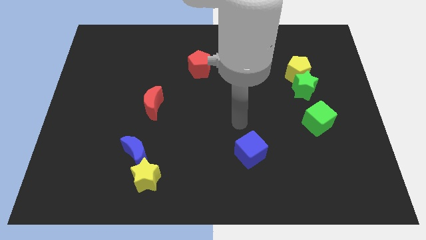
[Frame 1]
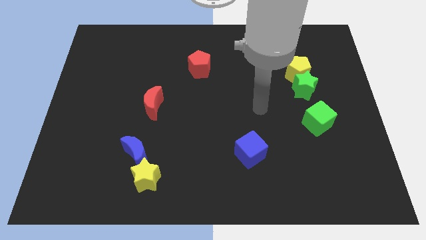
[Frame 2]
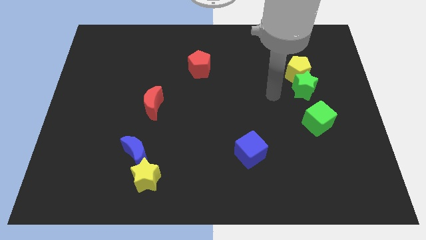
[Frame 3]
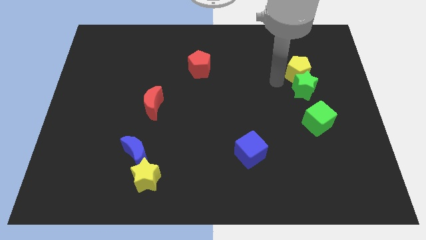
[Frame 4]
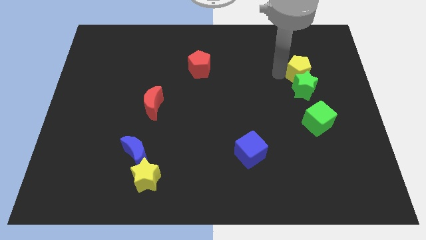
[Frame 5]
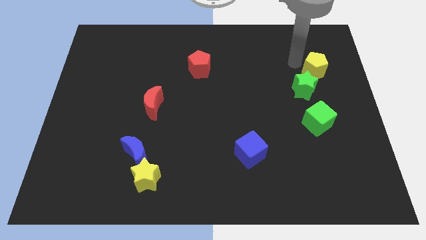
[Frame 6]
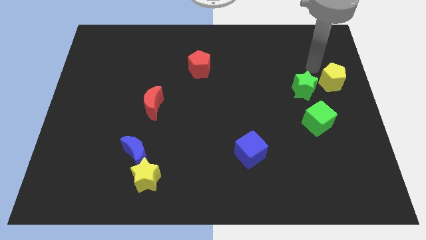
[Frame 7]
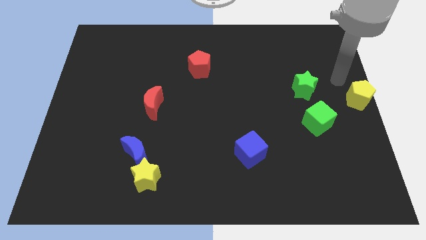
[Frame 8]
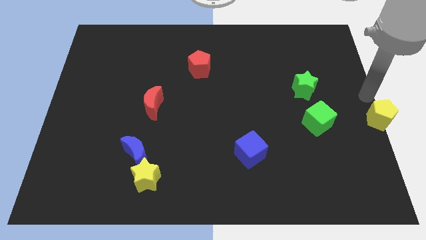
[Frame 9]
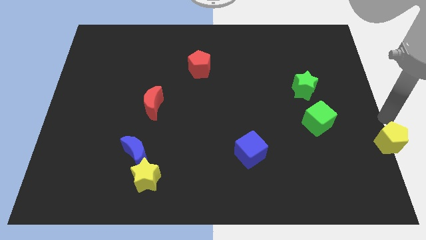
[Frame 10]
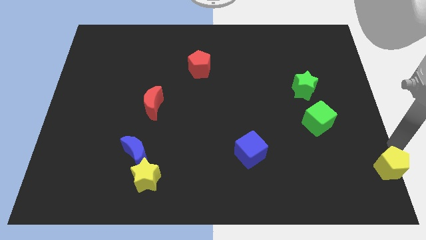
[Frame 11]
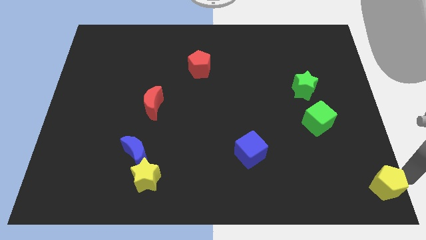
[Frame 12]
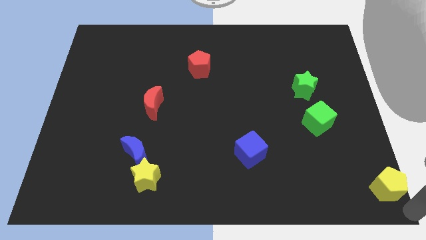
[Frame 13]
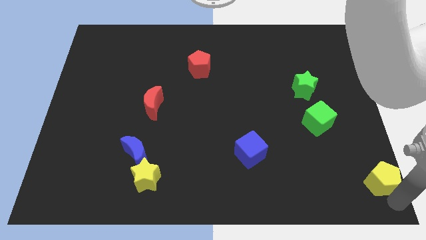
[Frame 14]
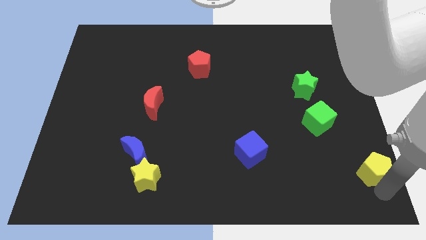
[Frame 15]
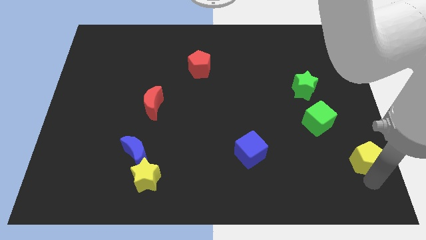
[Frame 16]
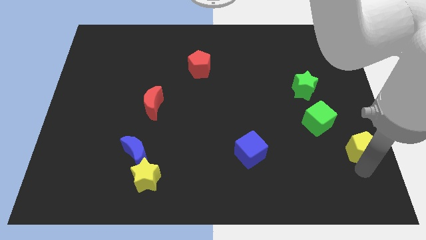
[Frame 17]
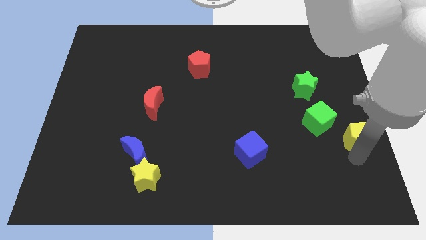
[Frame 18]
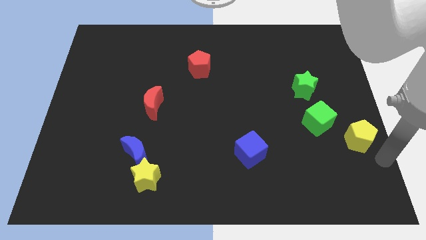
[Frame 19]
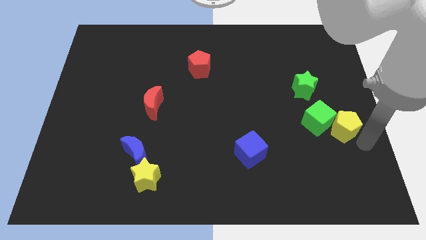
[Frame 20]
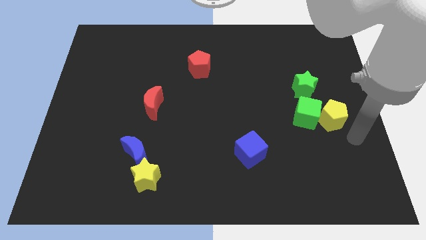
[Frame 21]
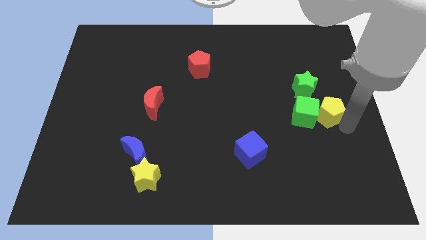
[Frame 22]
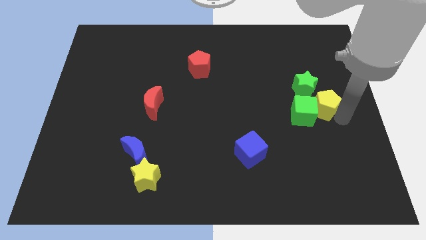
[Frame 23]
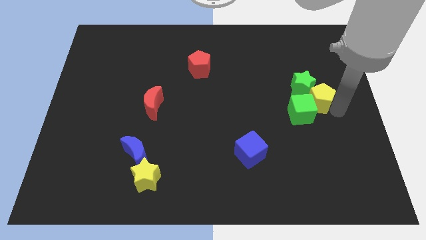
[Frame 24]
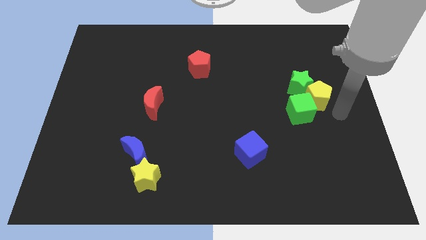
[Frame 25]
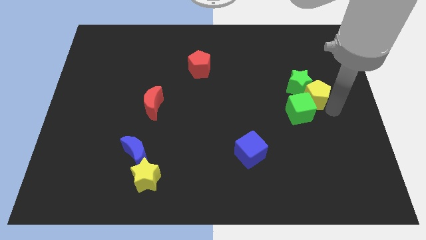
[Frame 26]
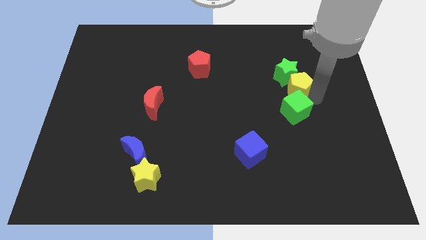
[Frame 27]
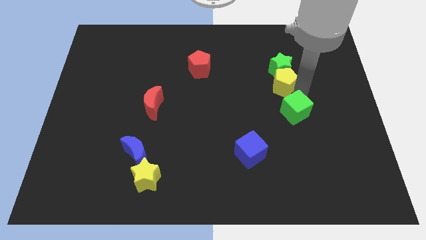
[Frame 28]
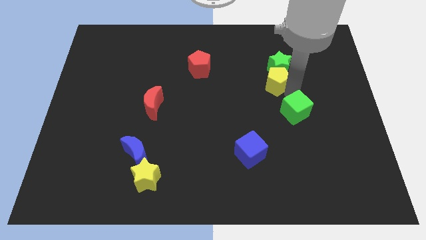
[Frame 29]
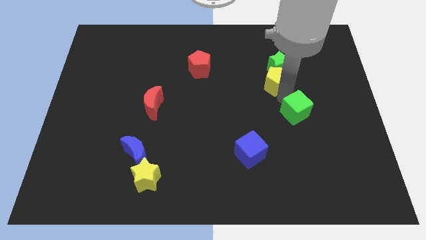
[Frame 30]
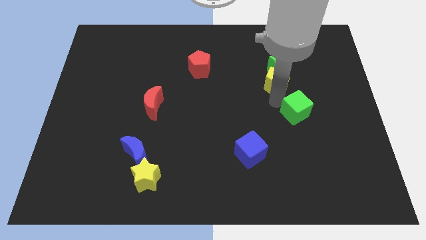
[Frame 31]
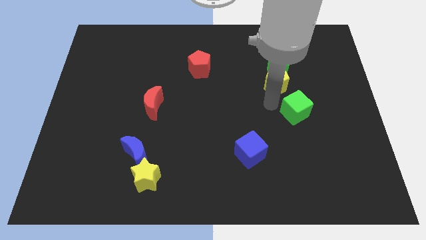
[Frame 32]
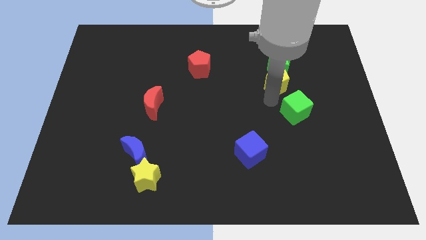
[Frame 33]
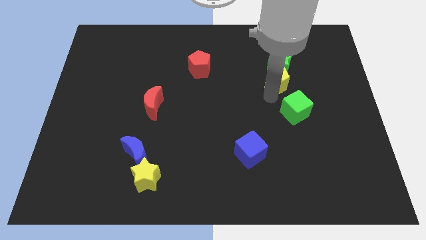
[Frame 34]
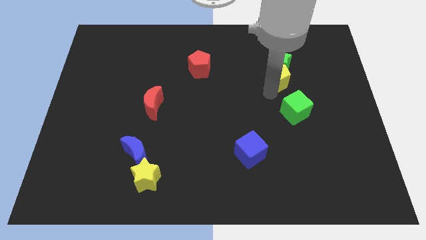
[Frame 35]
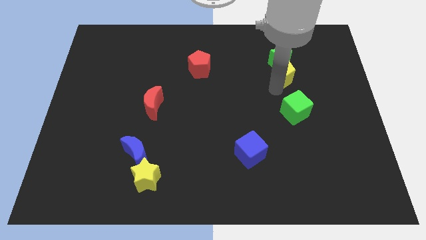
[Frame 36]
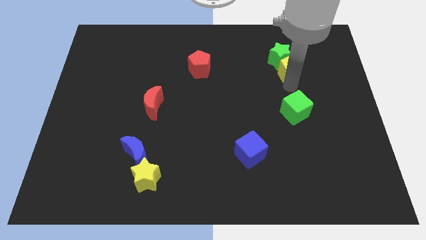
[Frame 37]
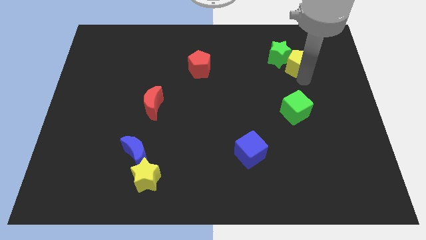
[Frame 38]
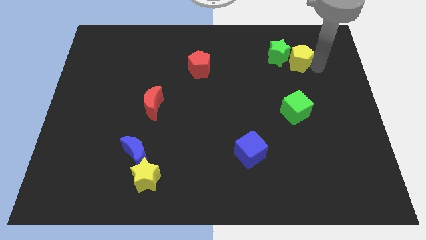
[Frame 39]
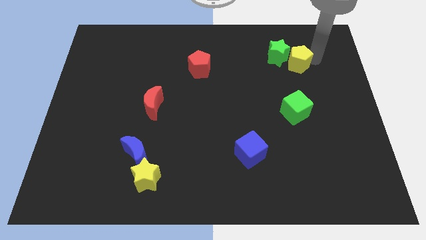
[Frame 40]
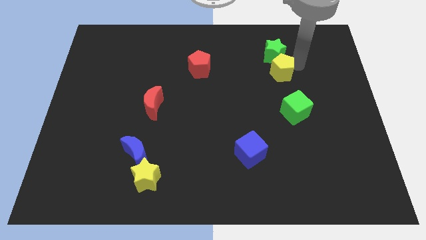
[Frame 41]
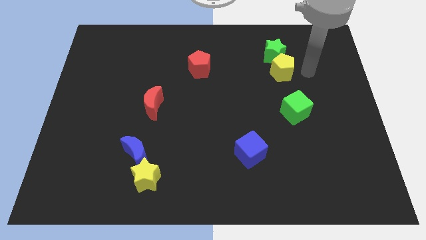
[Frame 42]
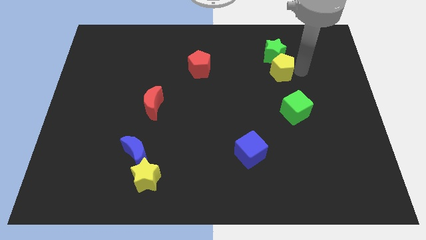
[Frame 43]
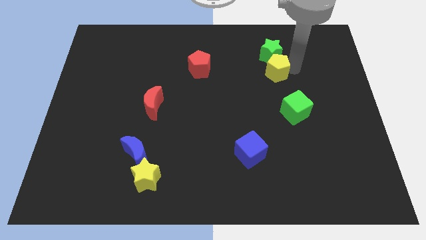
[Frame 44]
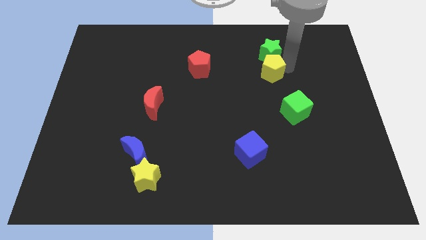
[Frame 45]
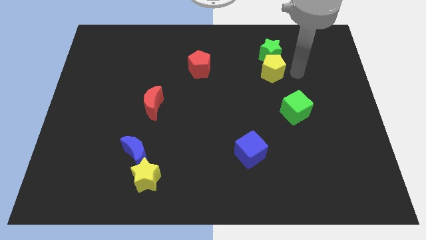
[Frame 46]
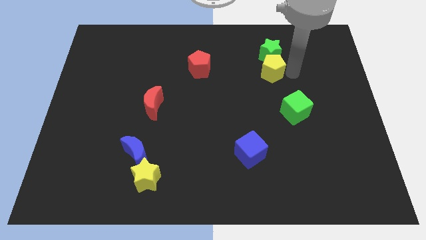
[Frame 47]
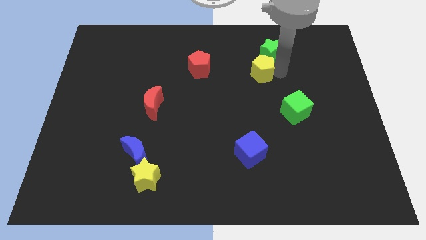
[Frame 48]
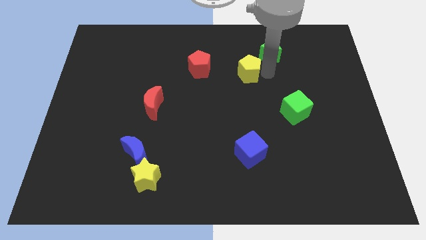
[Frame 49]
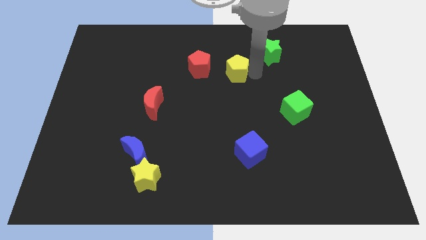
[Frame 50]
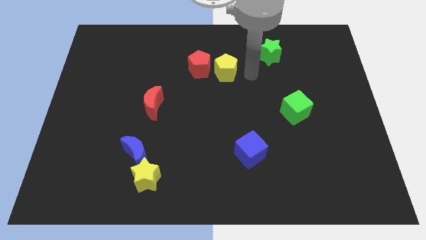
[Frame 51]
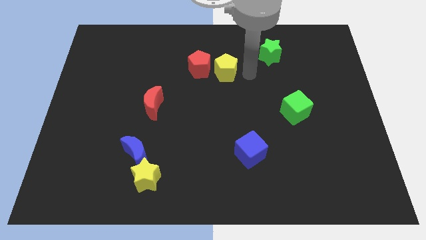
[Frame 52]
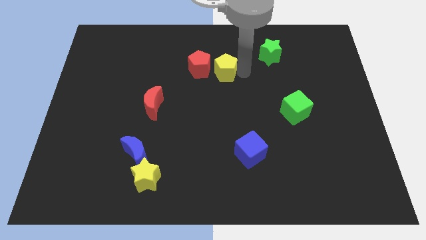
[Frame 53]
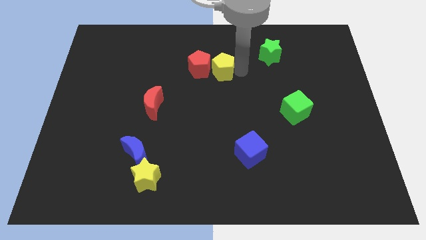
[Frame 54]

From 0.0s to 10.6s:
put the yellow pentagon next to the red pentagon

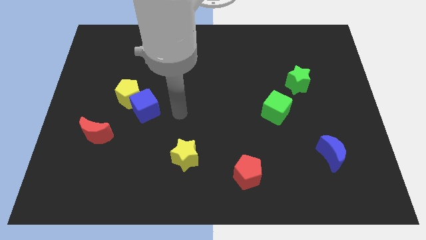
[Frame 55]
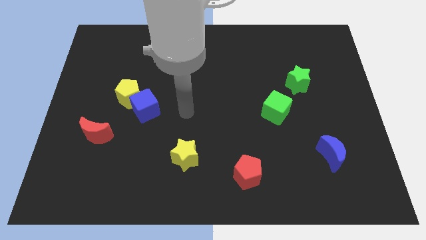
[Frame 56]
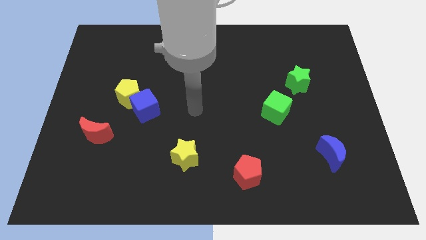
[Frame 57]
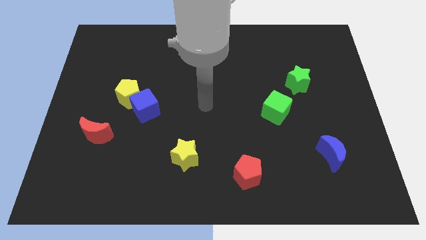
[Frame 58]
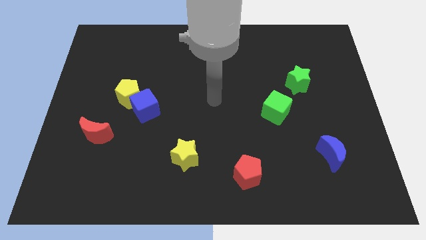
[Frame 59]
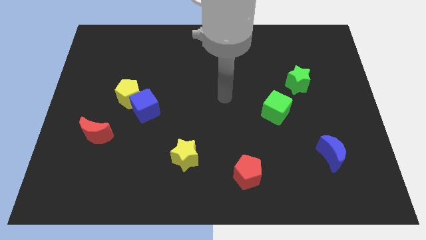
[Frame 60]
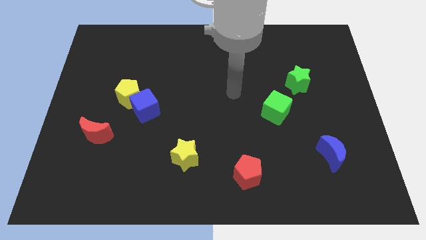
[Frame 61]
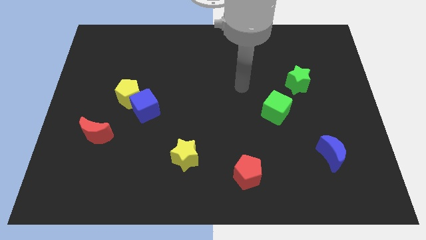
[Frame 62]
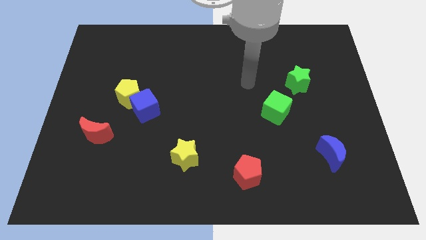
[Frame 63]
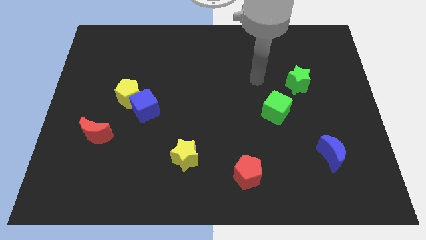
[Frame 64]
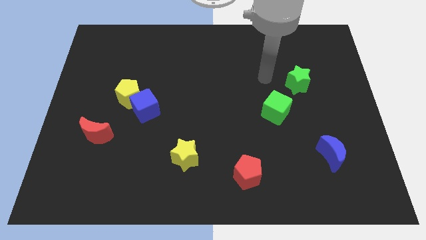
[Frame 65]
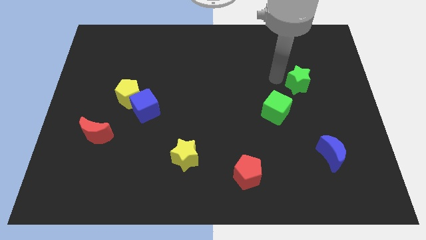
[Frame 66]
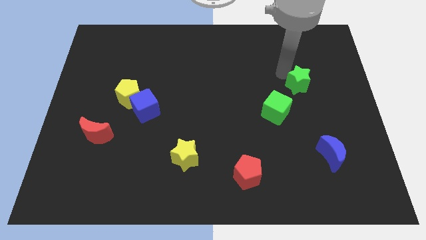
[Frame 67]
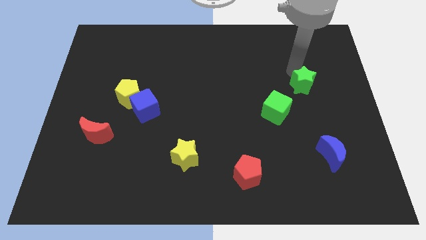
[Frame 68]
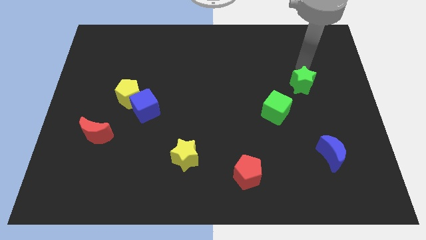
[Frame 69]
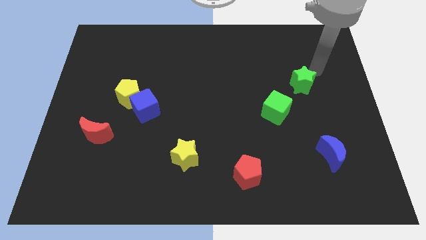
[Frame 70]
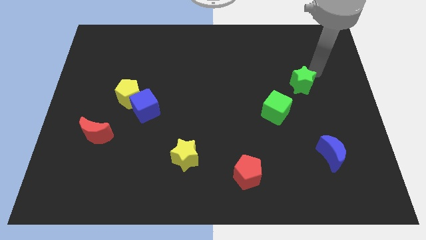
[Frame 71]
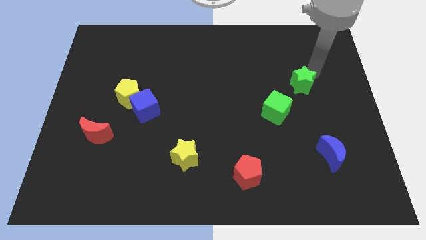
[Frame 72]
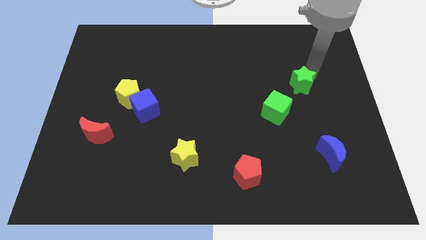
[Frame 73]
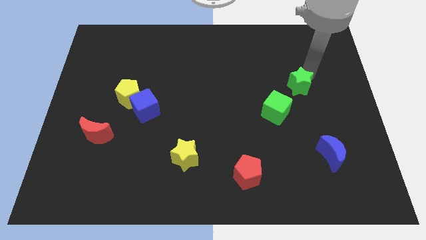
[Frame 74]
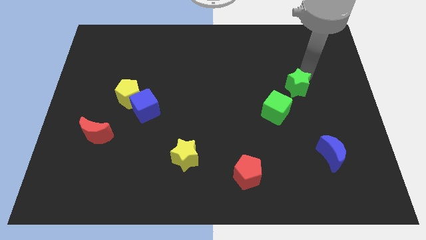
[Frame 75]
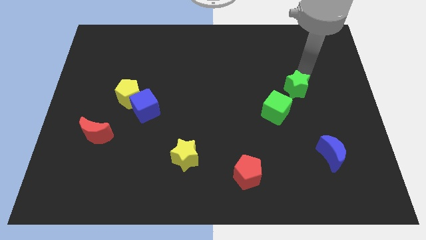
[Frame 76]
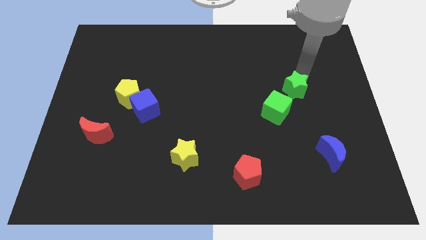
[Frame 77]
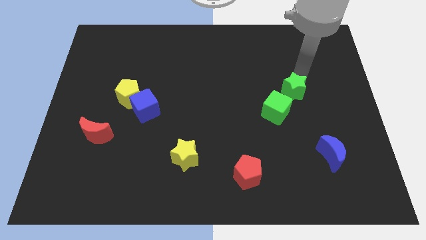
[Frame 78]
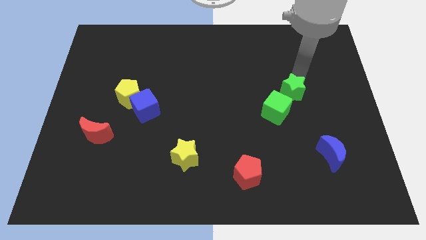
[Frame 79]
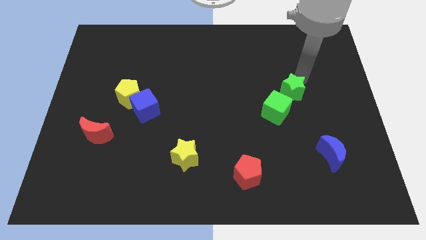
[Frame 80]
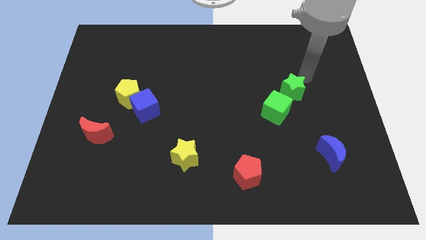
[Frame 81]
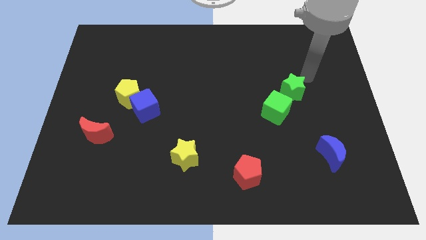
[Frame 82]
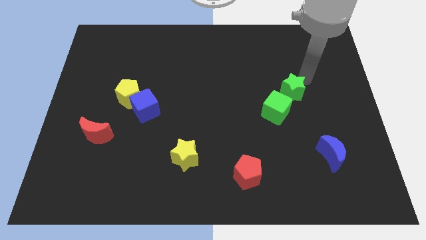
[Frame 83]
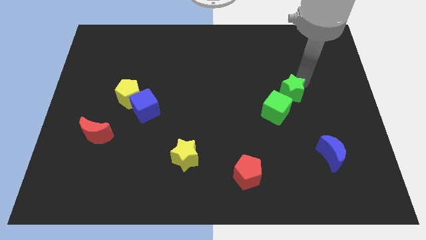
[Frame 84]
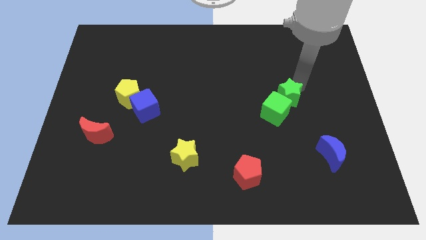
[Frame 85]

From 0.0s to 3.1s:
push the green star towards the green cube
